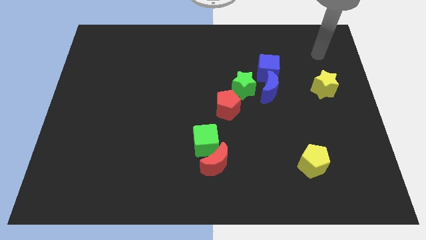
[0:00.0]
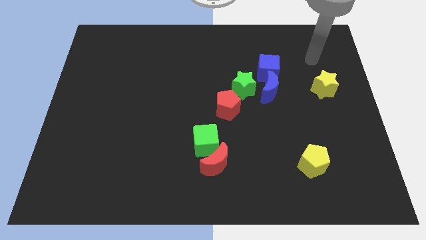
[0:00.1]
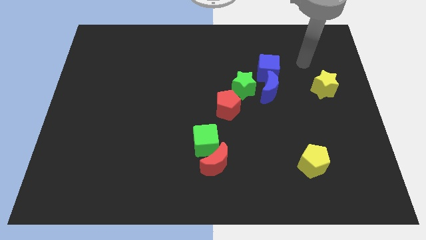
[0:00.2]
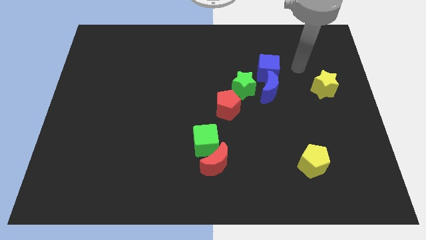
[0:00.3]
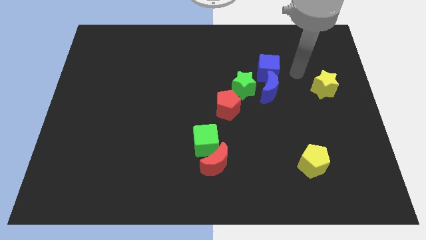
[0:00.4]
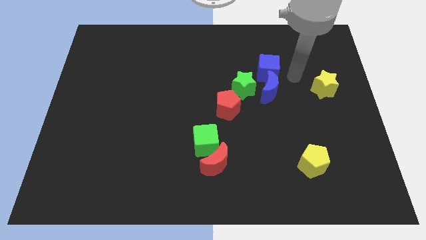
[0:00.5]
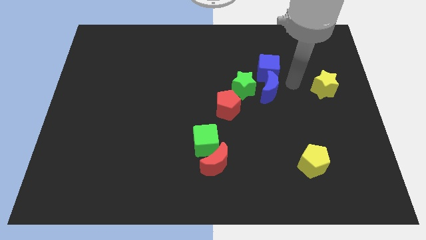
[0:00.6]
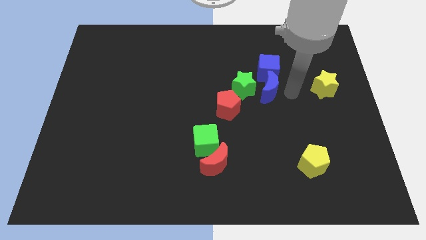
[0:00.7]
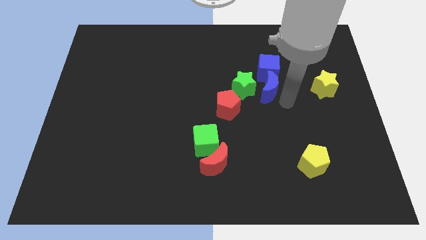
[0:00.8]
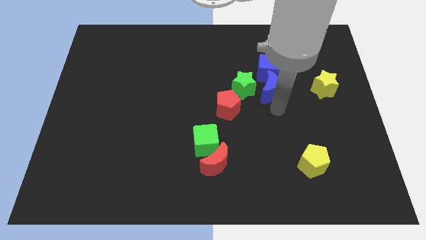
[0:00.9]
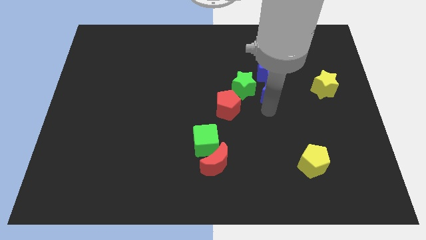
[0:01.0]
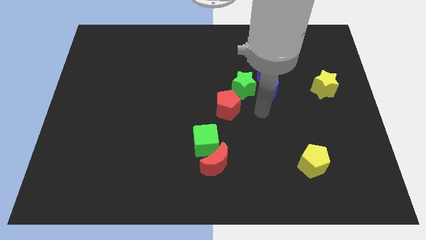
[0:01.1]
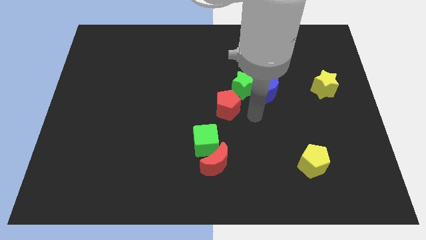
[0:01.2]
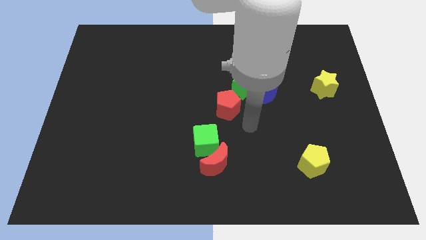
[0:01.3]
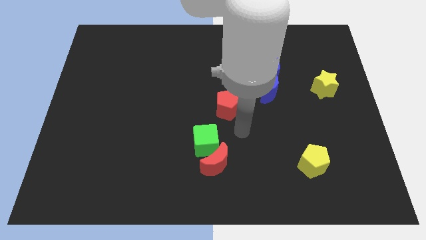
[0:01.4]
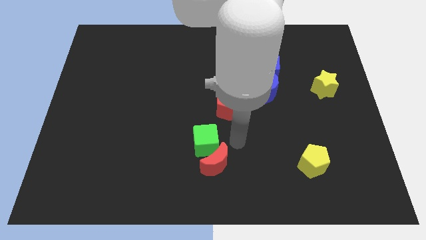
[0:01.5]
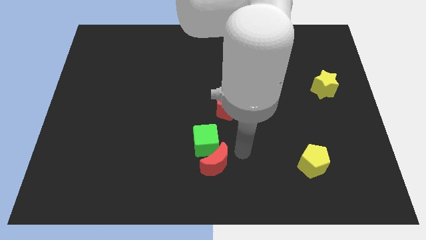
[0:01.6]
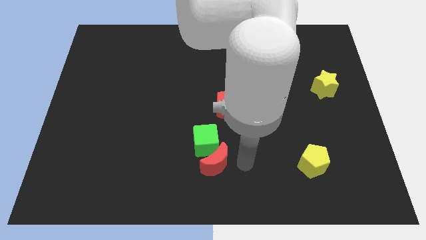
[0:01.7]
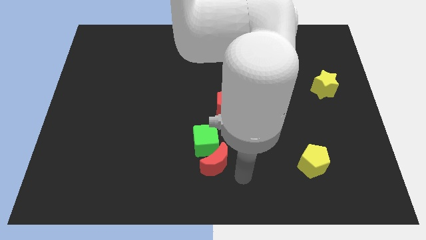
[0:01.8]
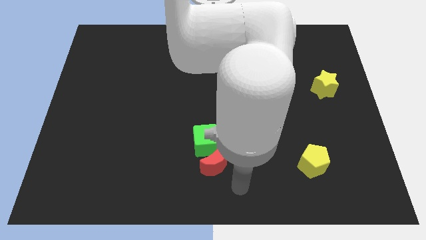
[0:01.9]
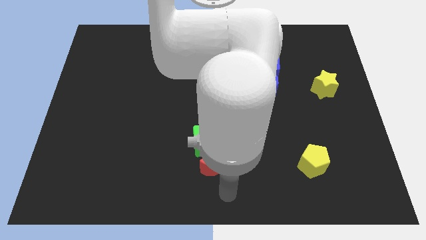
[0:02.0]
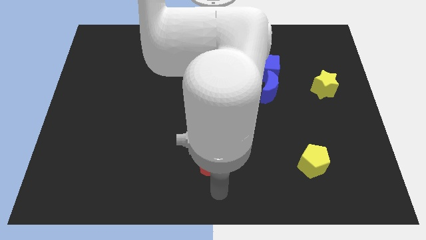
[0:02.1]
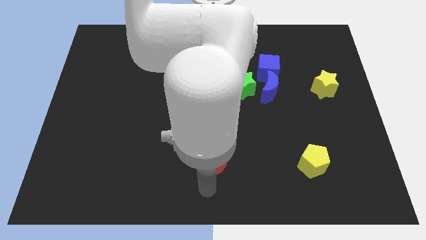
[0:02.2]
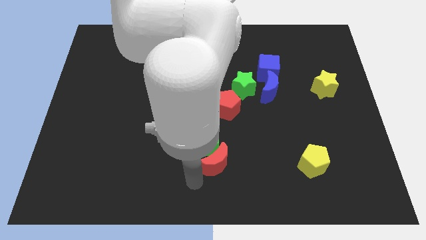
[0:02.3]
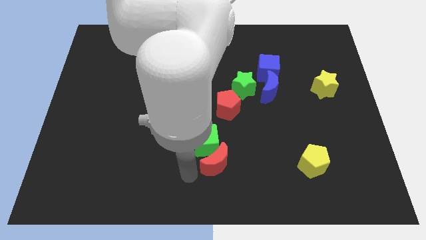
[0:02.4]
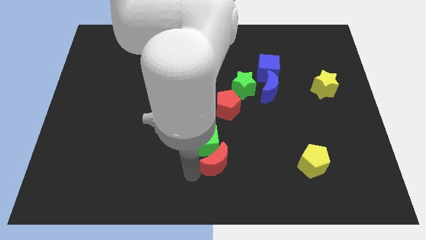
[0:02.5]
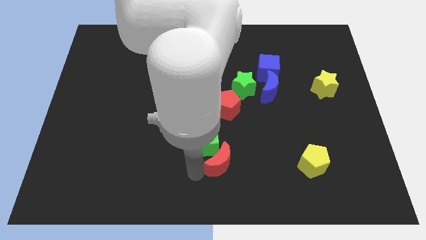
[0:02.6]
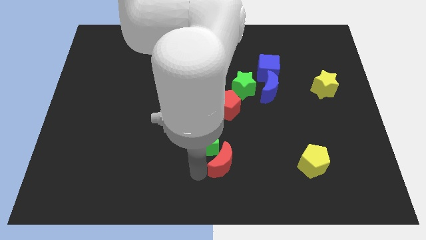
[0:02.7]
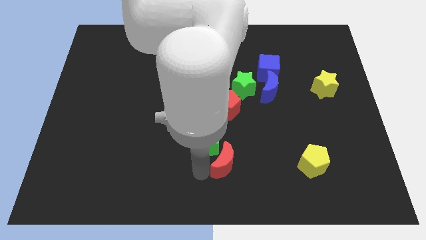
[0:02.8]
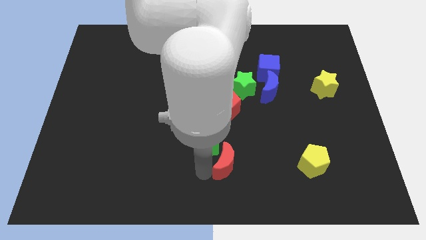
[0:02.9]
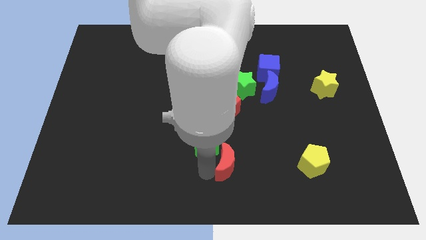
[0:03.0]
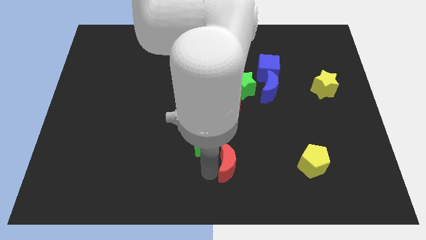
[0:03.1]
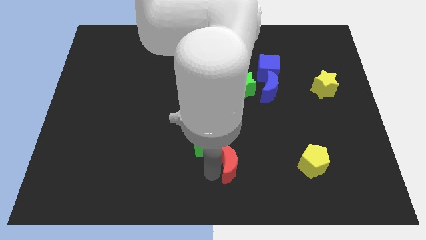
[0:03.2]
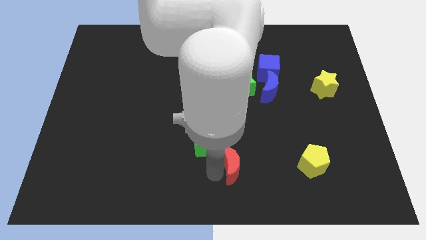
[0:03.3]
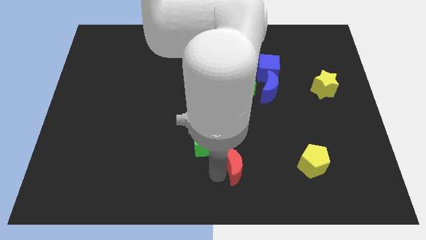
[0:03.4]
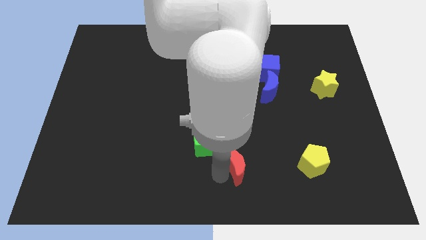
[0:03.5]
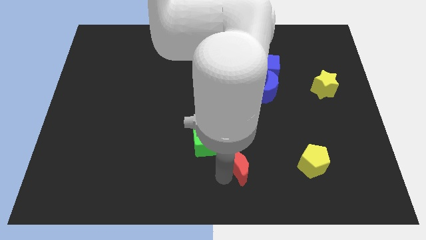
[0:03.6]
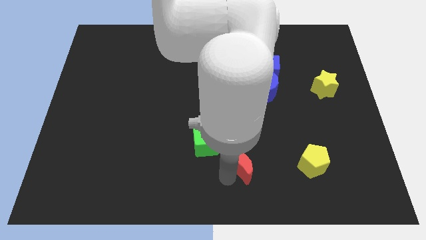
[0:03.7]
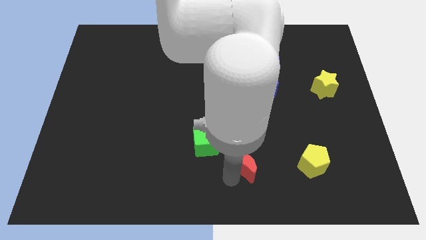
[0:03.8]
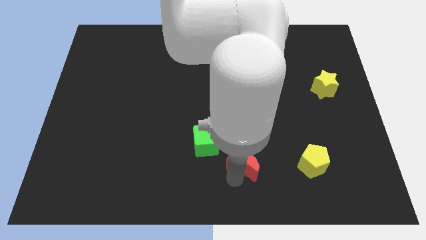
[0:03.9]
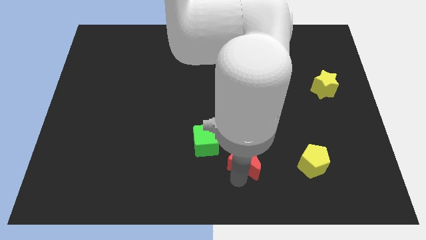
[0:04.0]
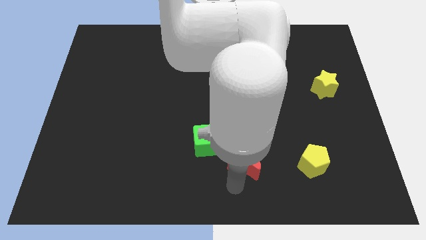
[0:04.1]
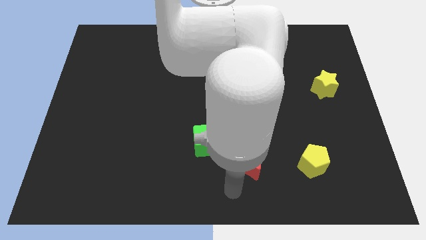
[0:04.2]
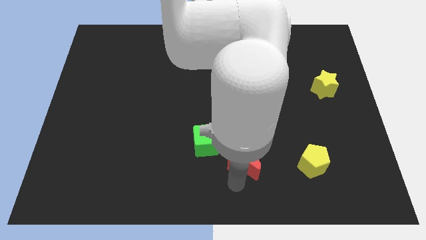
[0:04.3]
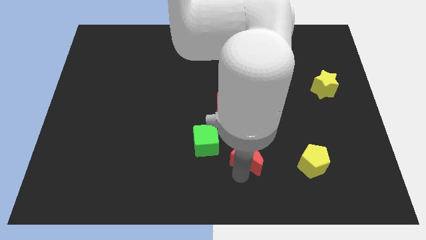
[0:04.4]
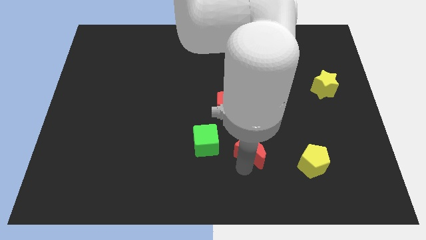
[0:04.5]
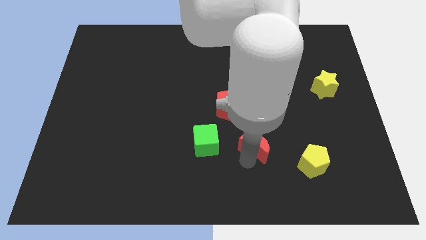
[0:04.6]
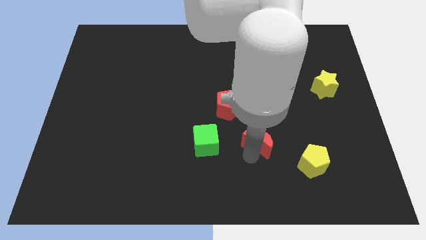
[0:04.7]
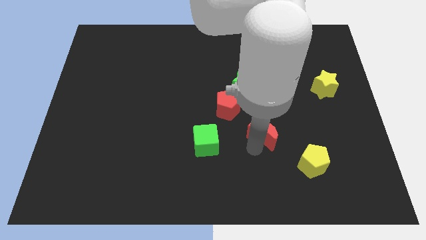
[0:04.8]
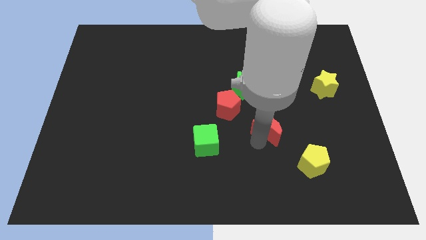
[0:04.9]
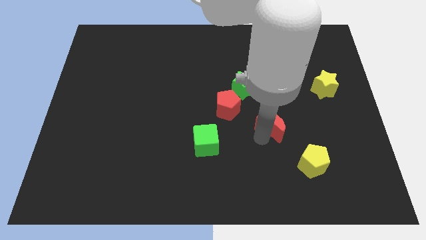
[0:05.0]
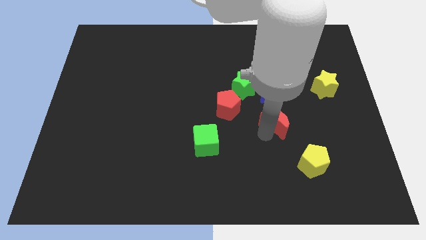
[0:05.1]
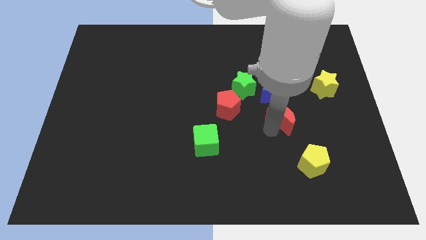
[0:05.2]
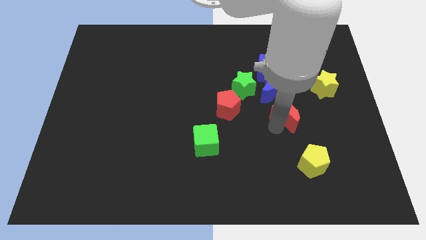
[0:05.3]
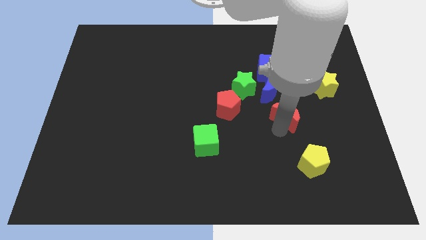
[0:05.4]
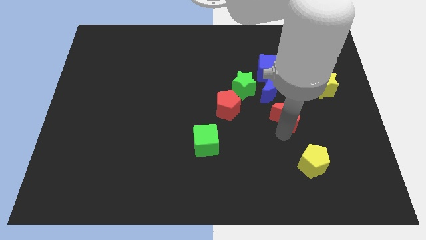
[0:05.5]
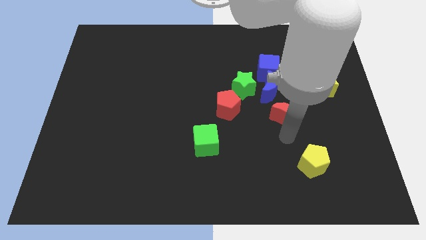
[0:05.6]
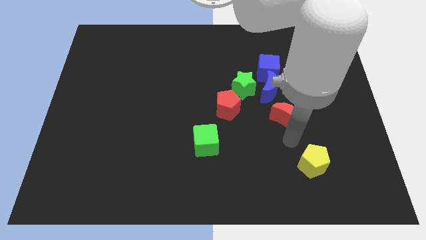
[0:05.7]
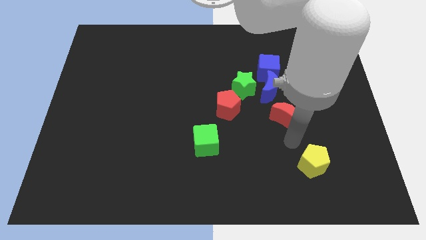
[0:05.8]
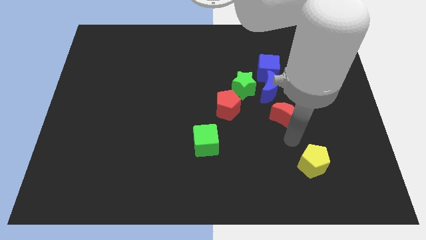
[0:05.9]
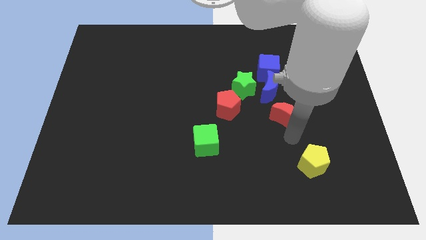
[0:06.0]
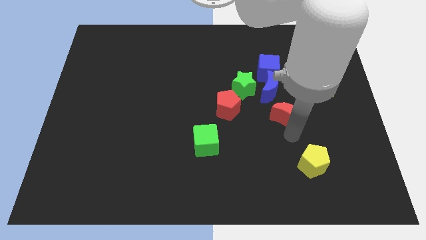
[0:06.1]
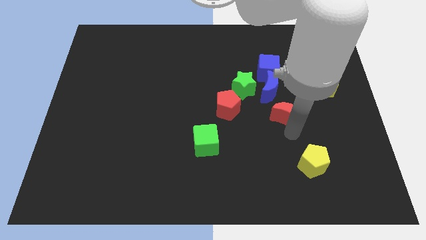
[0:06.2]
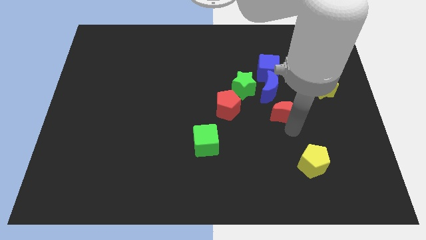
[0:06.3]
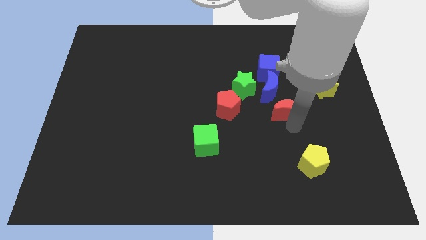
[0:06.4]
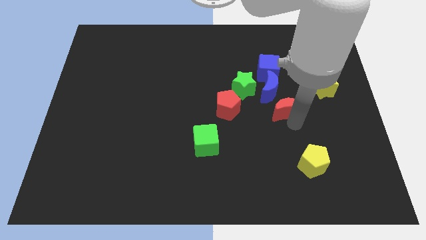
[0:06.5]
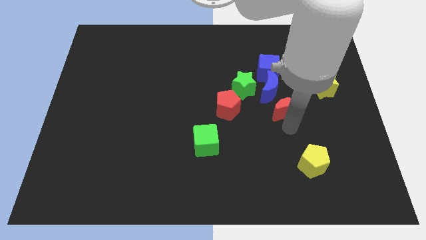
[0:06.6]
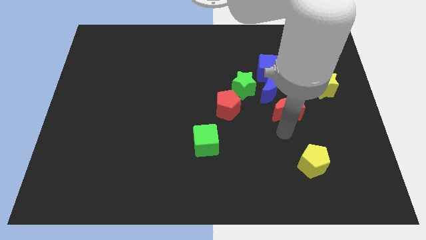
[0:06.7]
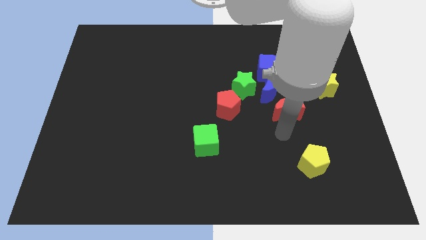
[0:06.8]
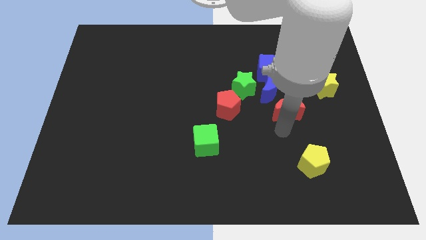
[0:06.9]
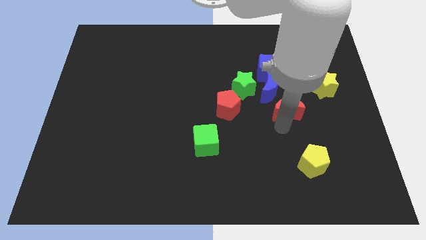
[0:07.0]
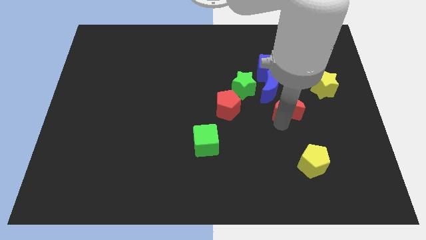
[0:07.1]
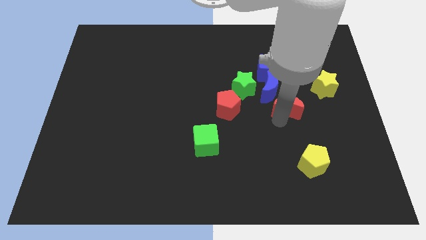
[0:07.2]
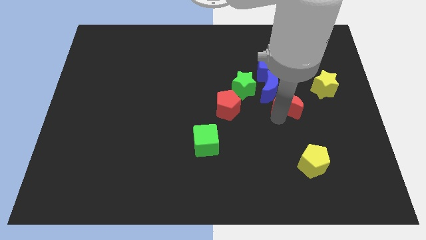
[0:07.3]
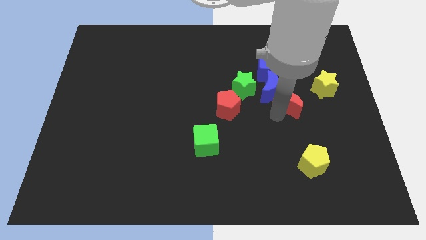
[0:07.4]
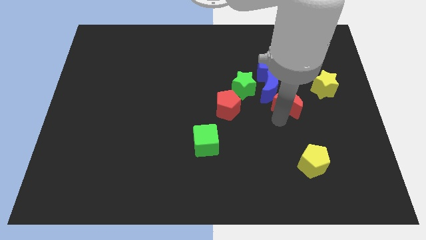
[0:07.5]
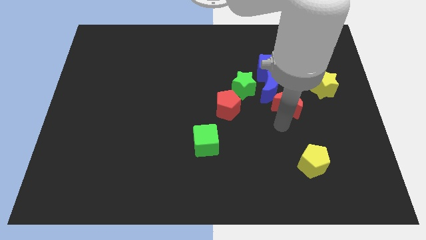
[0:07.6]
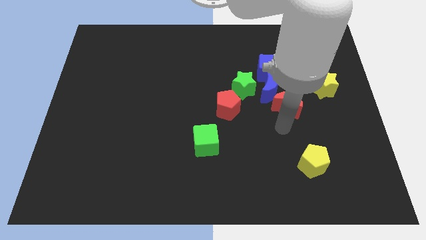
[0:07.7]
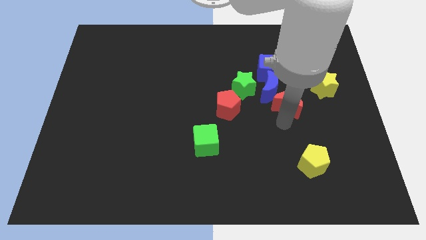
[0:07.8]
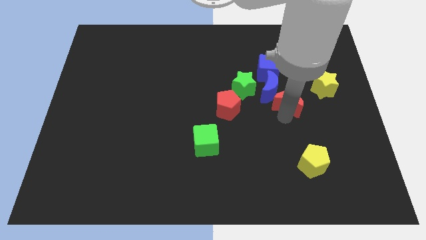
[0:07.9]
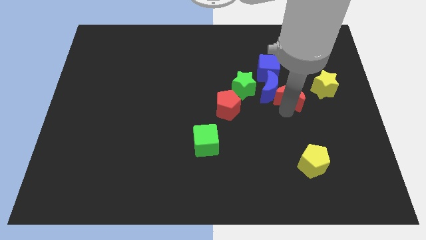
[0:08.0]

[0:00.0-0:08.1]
slide the red moon diagonally down and to the right of the blue cube
